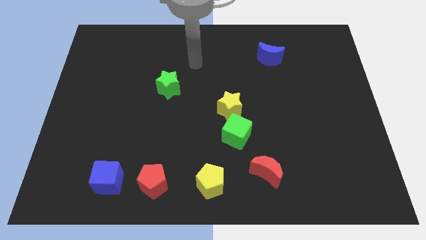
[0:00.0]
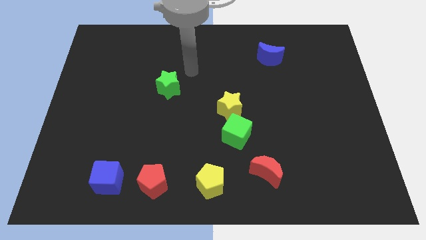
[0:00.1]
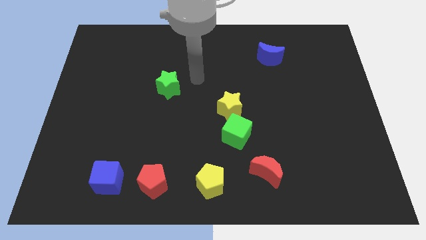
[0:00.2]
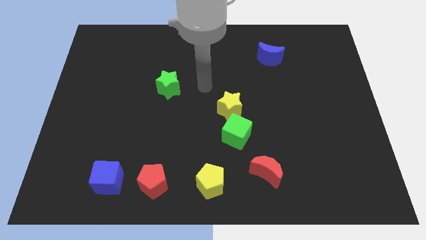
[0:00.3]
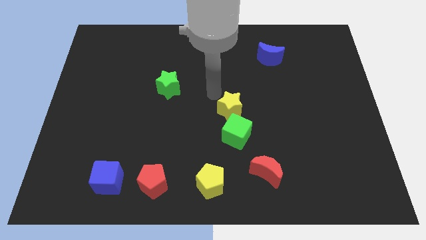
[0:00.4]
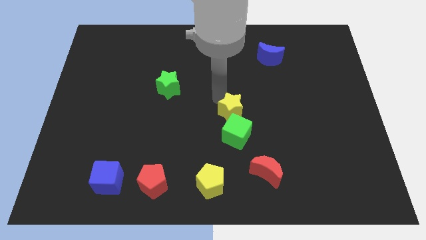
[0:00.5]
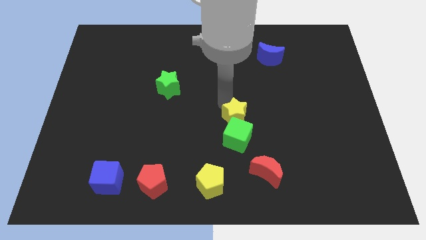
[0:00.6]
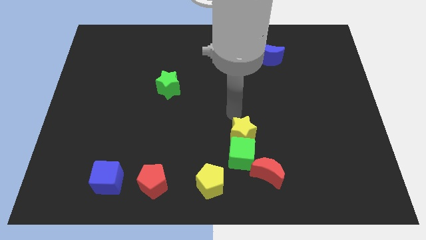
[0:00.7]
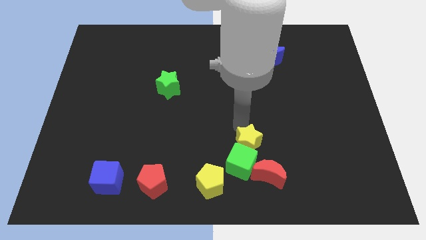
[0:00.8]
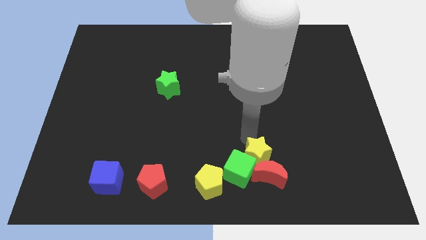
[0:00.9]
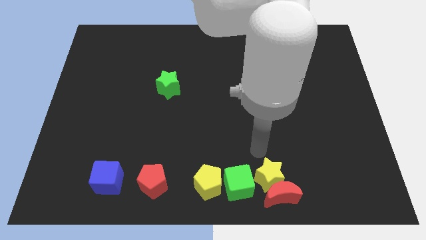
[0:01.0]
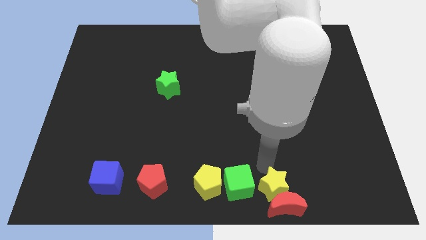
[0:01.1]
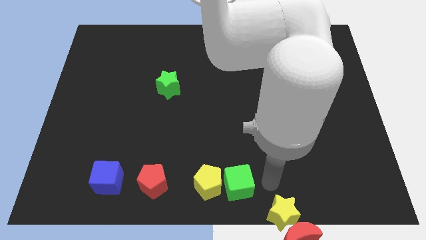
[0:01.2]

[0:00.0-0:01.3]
separate the green cube from the yellow star

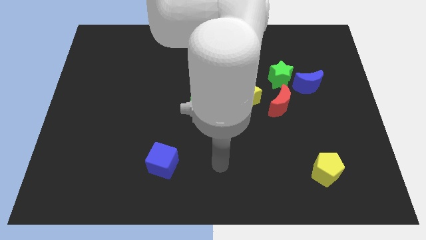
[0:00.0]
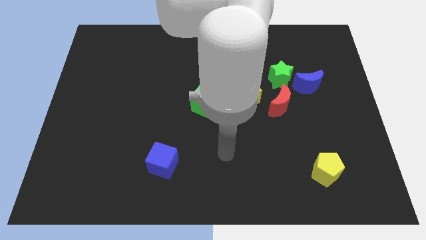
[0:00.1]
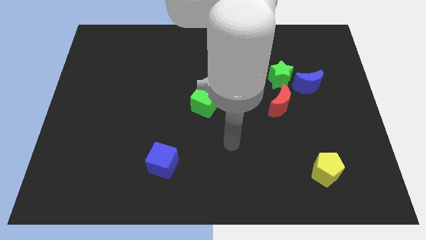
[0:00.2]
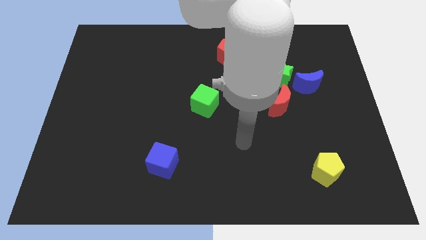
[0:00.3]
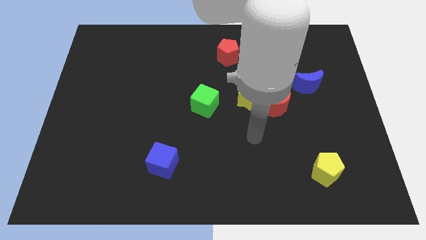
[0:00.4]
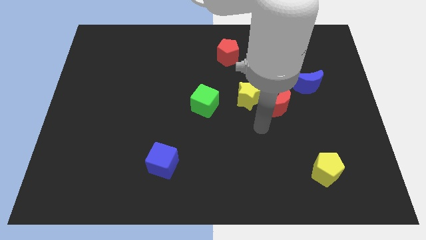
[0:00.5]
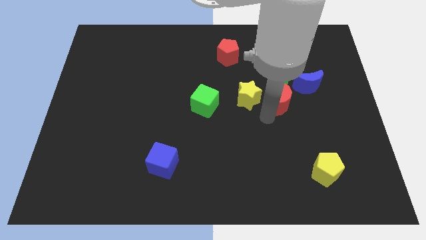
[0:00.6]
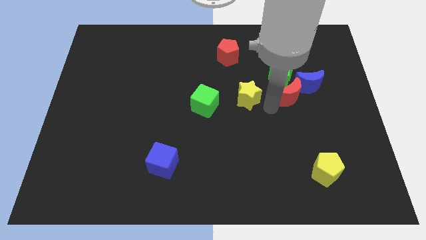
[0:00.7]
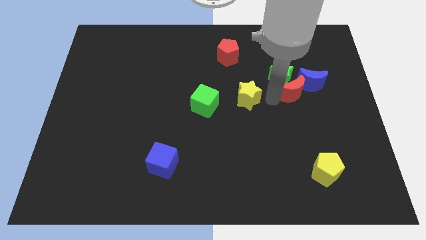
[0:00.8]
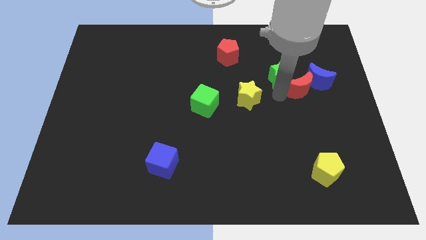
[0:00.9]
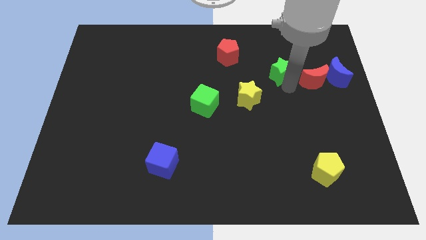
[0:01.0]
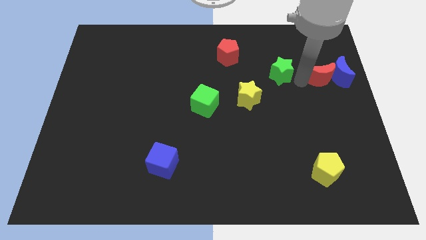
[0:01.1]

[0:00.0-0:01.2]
move the blue moon away from the green star and red moon

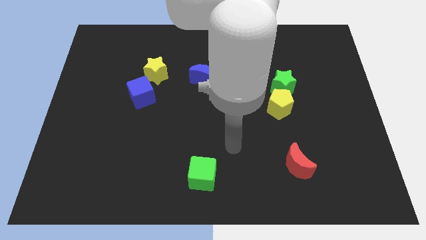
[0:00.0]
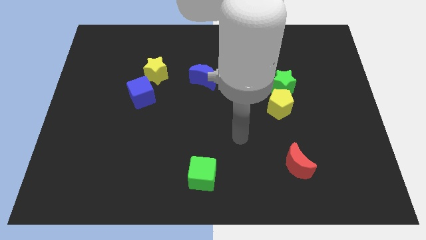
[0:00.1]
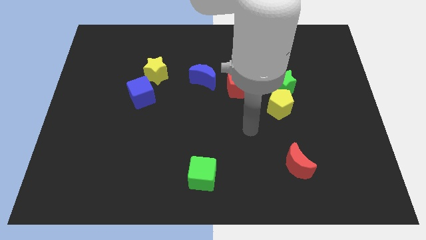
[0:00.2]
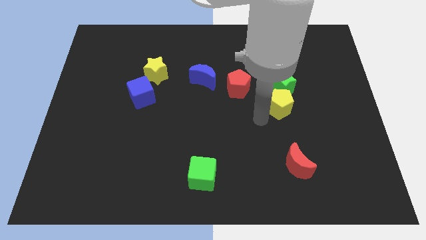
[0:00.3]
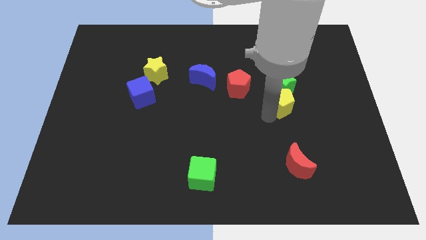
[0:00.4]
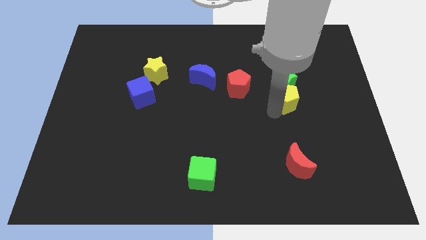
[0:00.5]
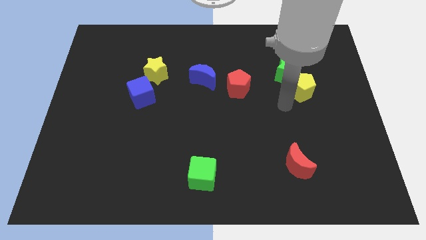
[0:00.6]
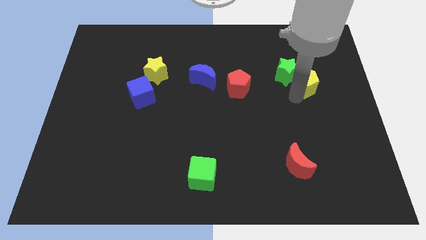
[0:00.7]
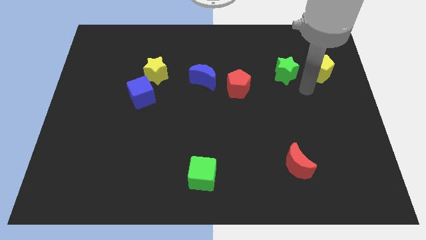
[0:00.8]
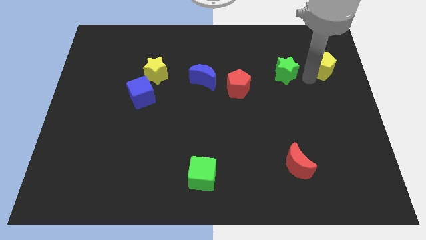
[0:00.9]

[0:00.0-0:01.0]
move the green star away from the yellow pentagon

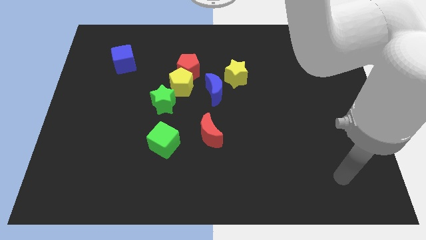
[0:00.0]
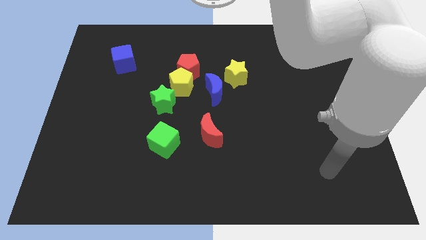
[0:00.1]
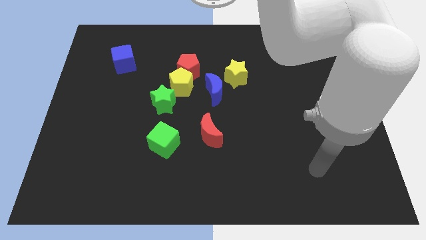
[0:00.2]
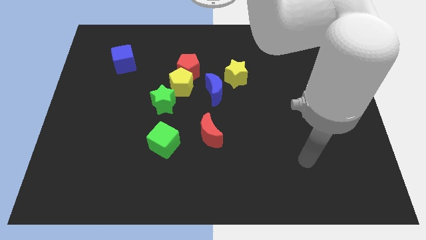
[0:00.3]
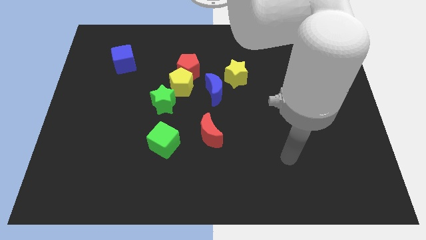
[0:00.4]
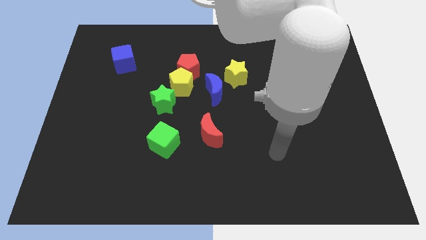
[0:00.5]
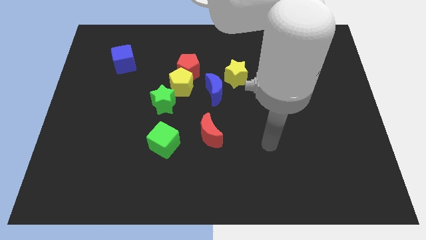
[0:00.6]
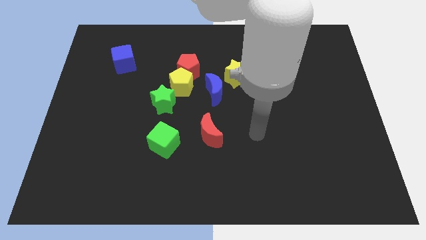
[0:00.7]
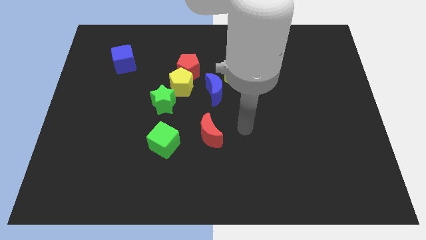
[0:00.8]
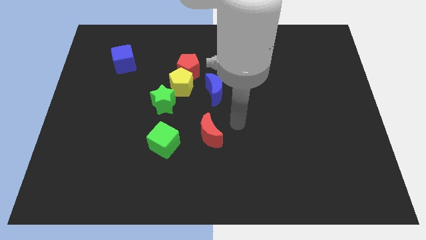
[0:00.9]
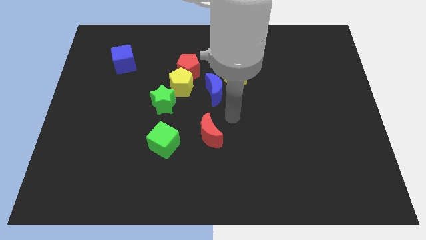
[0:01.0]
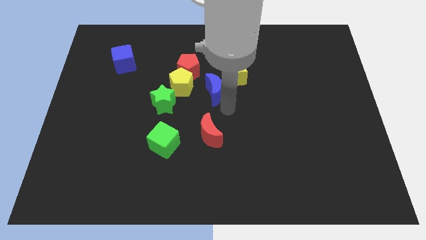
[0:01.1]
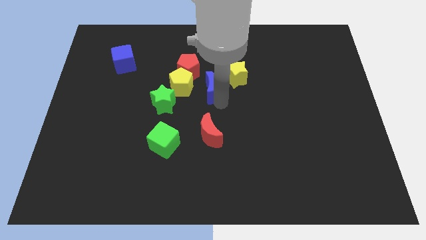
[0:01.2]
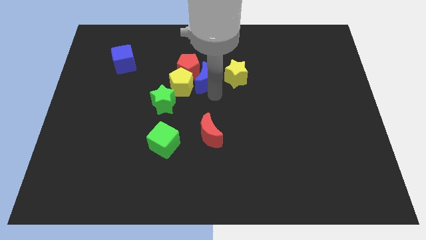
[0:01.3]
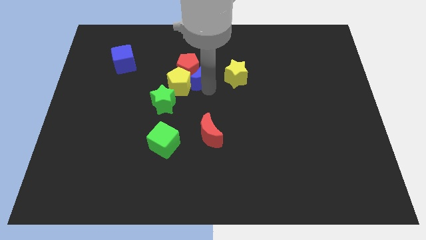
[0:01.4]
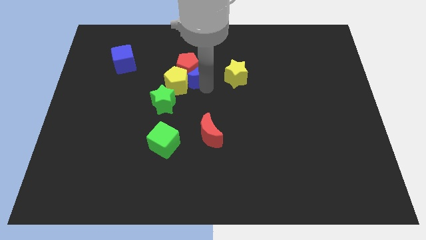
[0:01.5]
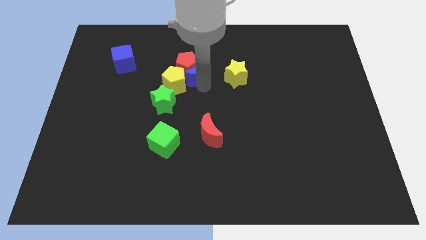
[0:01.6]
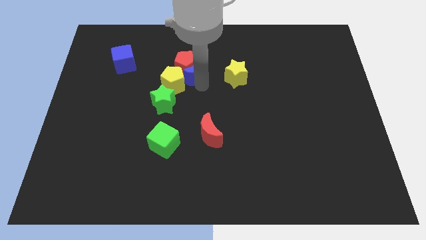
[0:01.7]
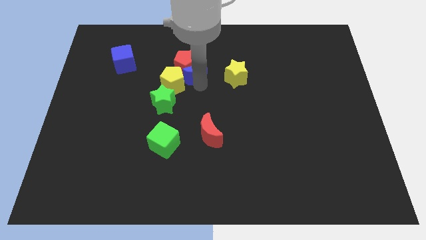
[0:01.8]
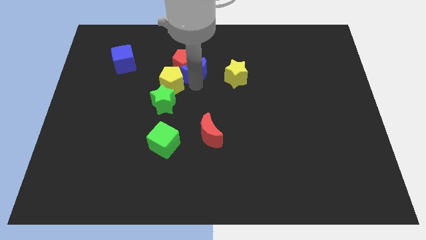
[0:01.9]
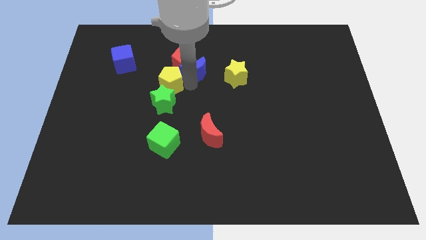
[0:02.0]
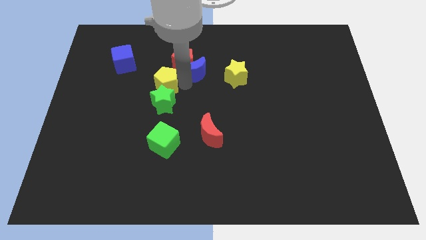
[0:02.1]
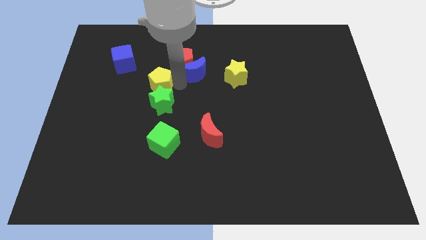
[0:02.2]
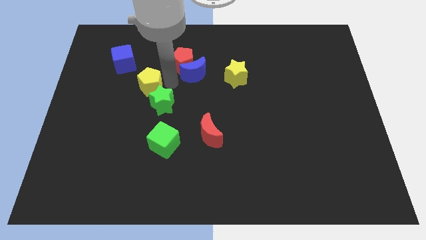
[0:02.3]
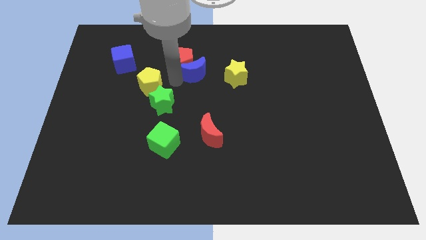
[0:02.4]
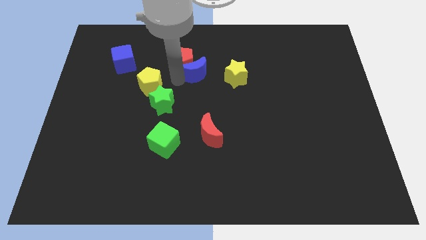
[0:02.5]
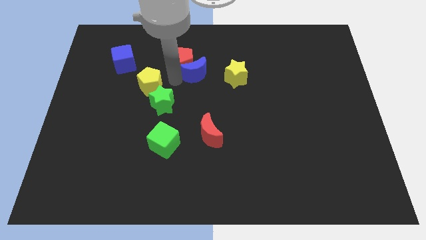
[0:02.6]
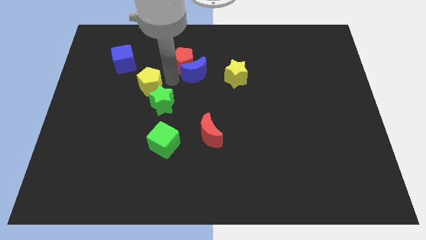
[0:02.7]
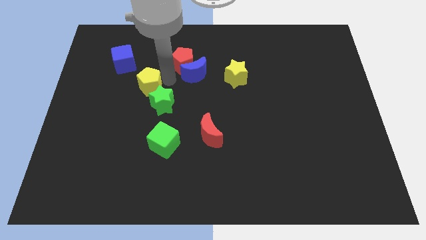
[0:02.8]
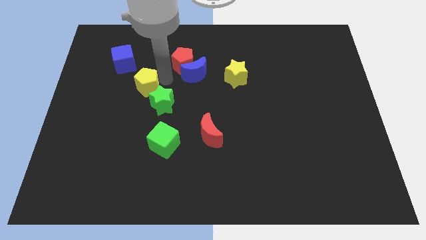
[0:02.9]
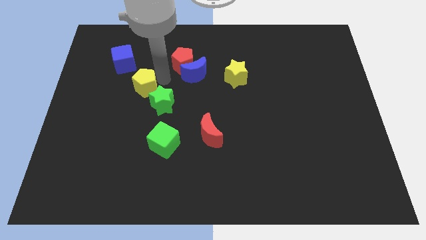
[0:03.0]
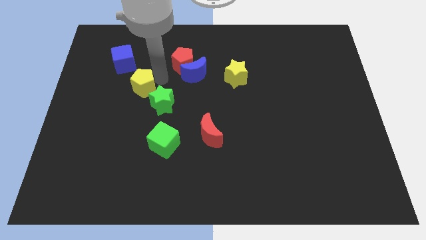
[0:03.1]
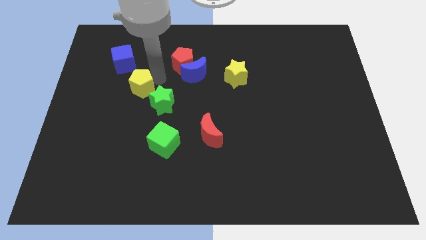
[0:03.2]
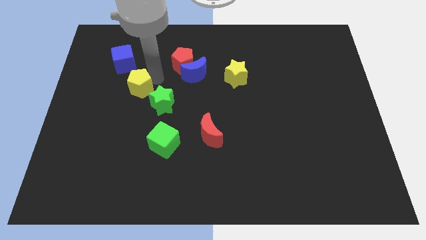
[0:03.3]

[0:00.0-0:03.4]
move the yellow pentagon away from the group of blocks

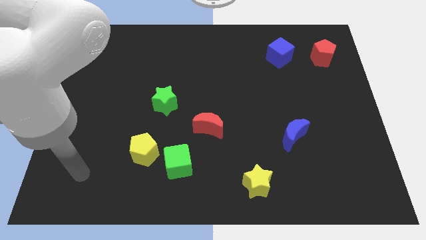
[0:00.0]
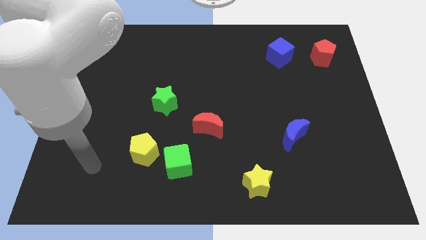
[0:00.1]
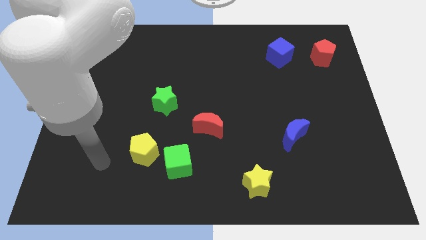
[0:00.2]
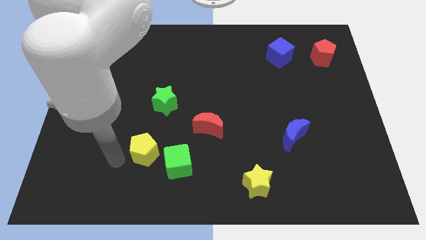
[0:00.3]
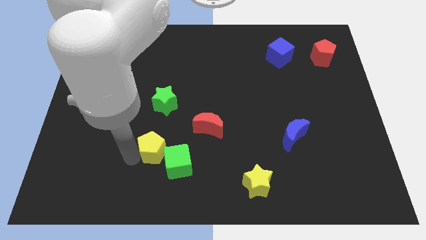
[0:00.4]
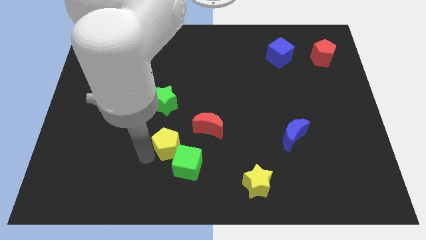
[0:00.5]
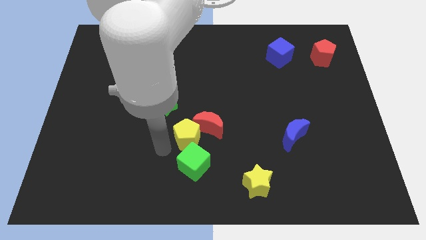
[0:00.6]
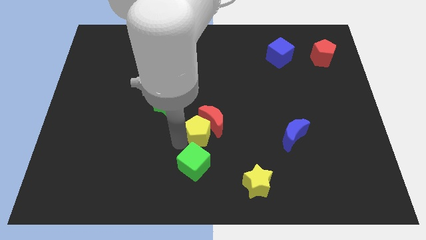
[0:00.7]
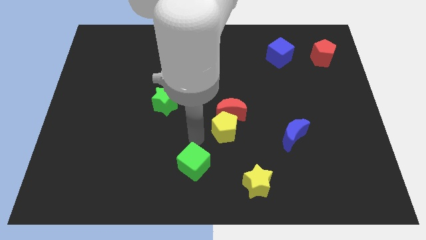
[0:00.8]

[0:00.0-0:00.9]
move the green cube away from the yellow pentagon

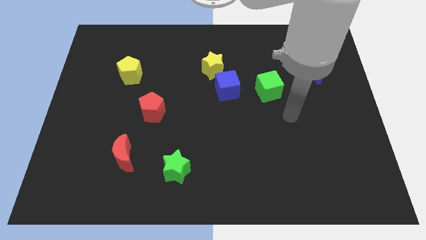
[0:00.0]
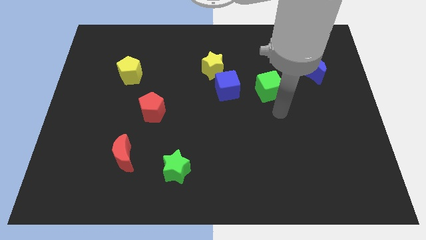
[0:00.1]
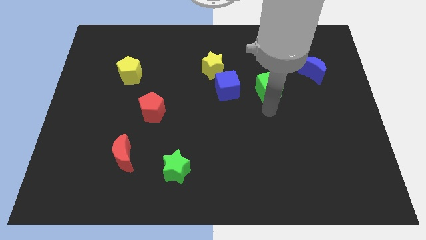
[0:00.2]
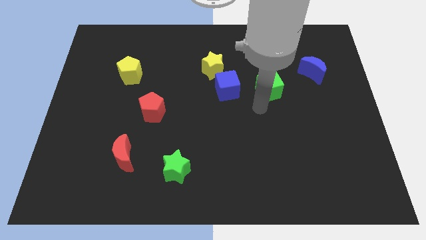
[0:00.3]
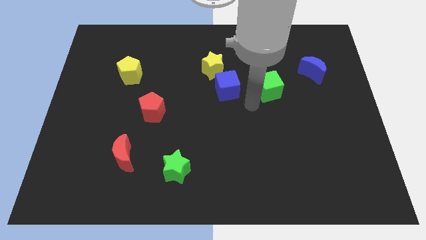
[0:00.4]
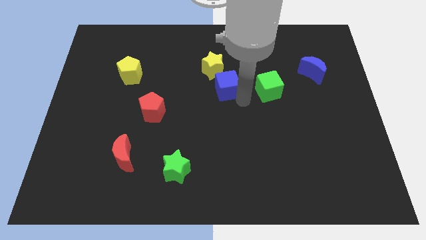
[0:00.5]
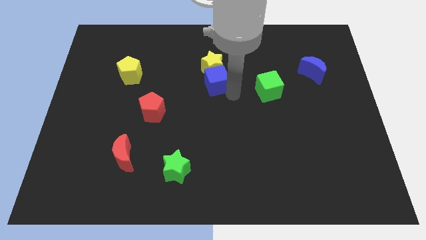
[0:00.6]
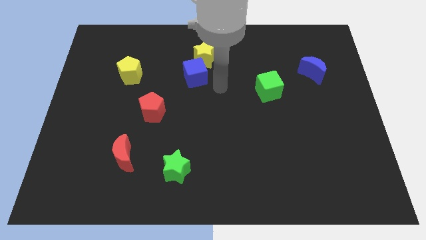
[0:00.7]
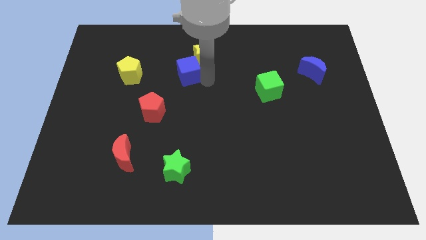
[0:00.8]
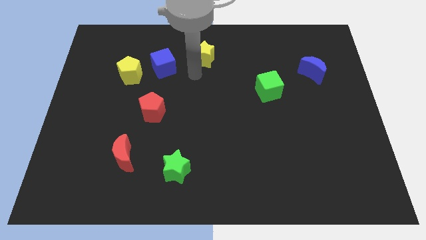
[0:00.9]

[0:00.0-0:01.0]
pull the yellow star apart from the blue cube

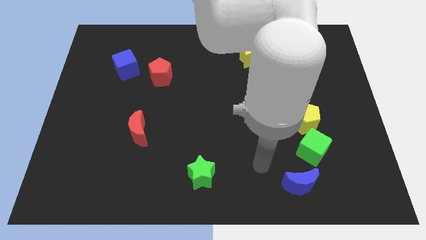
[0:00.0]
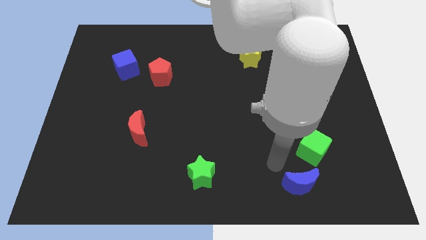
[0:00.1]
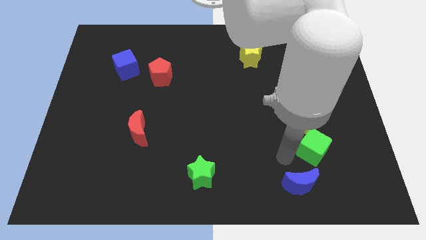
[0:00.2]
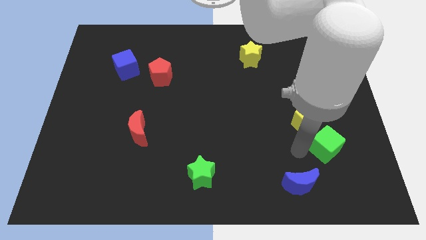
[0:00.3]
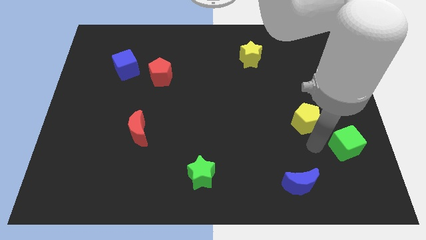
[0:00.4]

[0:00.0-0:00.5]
separate the yellow pentagon from the green cube
